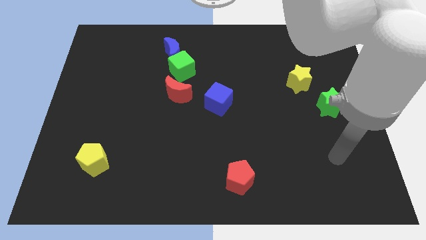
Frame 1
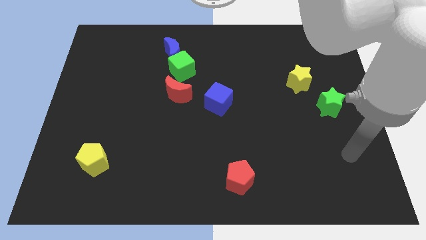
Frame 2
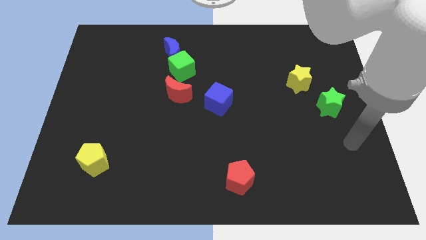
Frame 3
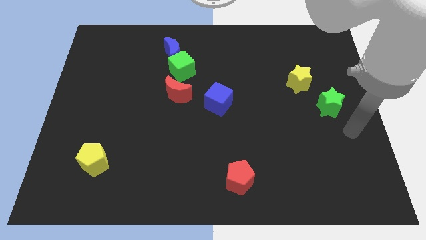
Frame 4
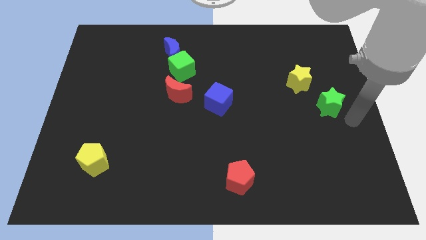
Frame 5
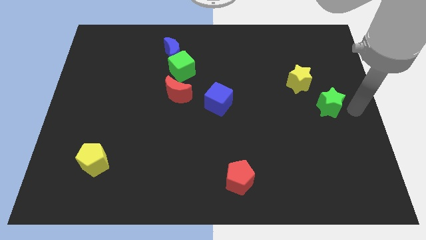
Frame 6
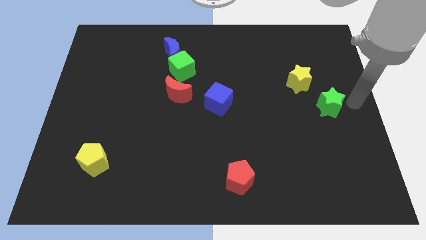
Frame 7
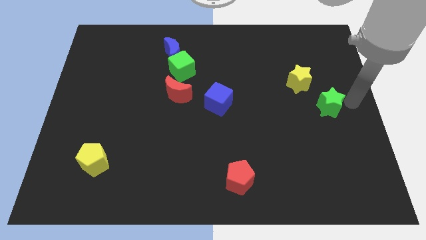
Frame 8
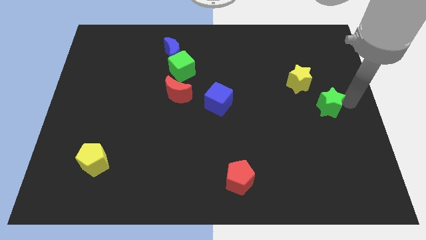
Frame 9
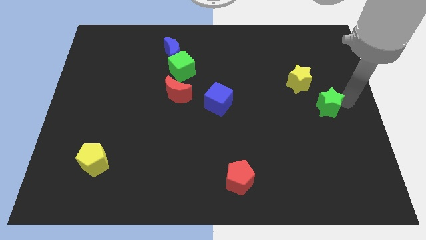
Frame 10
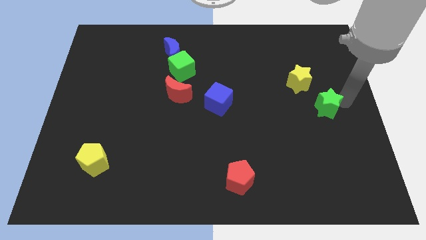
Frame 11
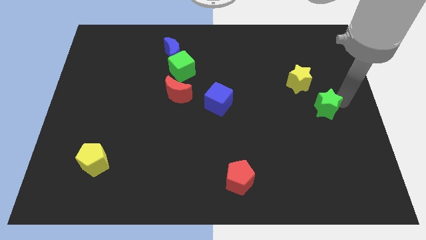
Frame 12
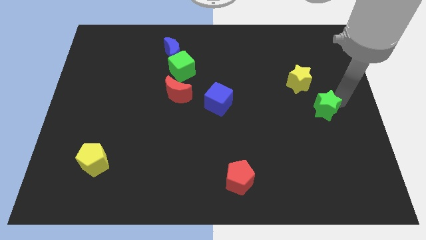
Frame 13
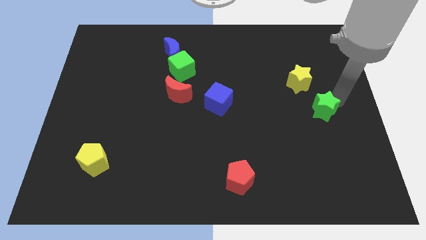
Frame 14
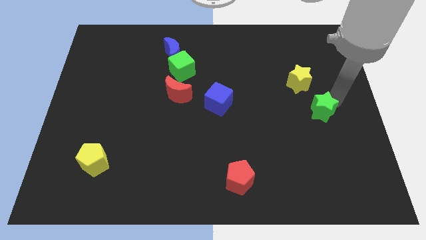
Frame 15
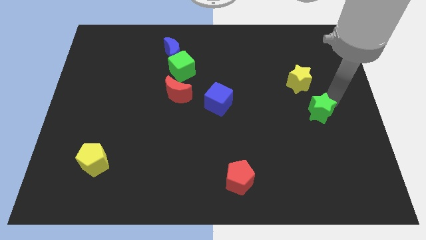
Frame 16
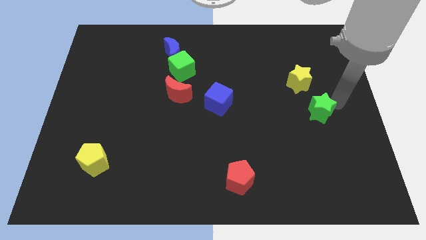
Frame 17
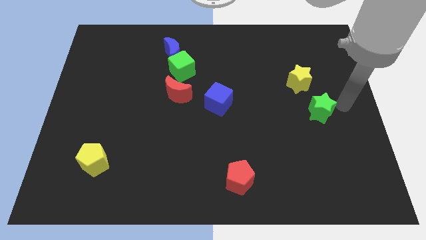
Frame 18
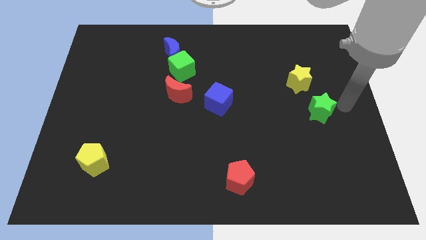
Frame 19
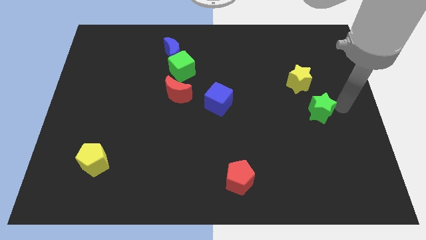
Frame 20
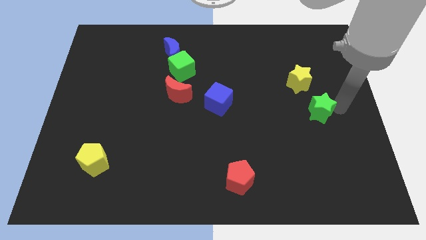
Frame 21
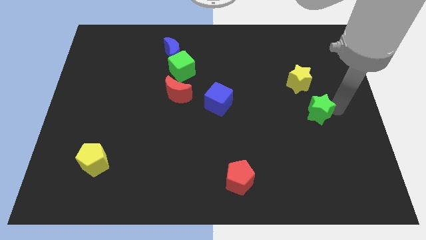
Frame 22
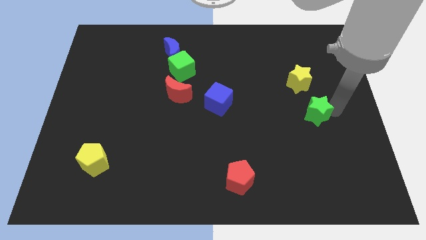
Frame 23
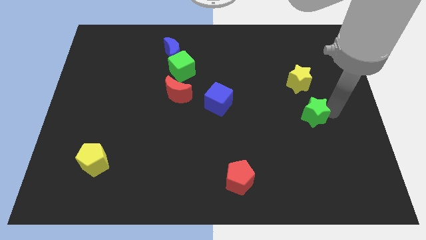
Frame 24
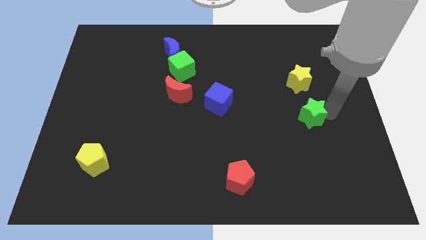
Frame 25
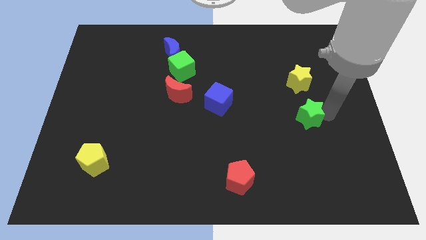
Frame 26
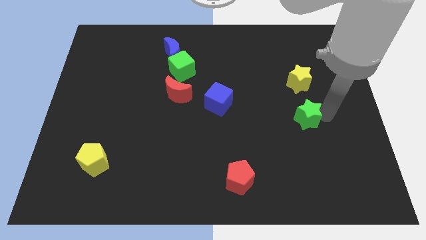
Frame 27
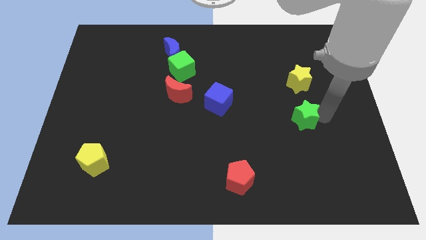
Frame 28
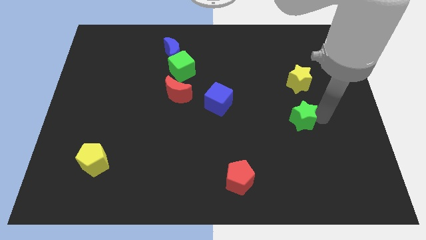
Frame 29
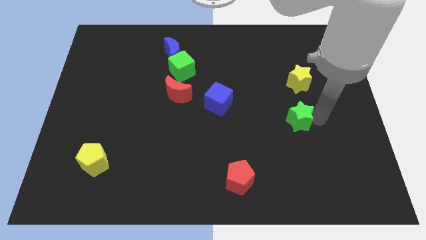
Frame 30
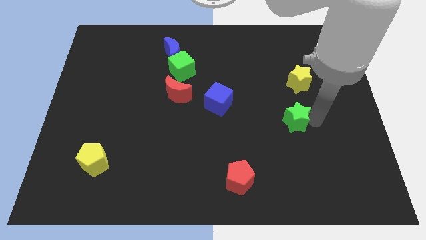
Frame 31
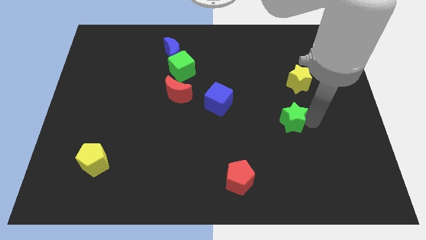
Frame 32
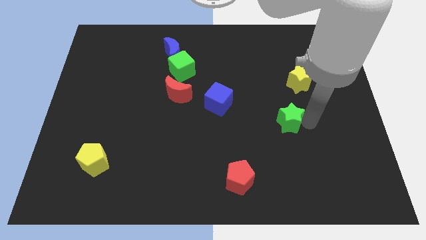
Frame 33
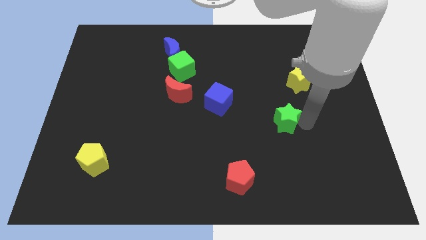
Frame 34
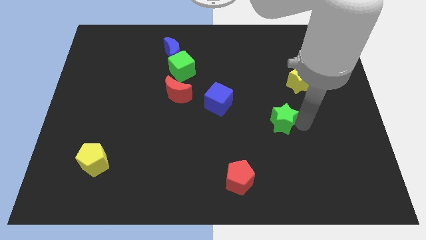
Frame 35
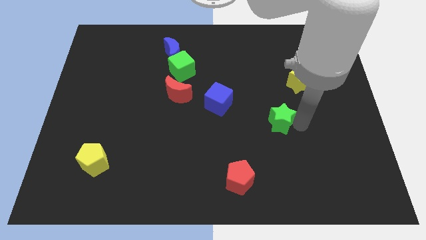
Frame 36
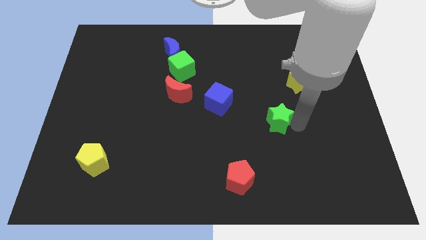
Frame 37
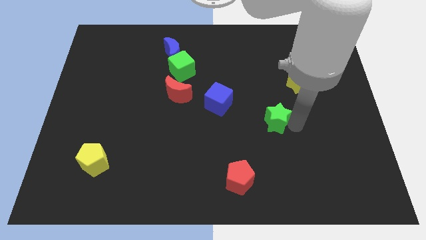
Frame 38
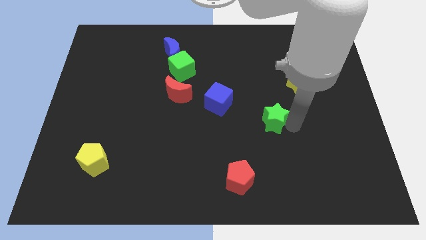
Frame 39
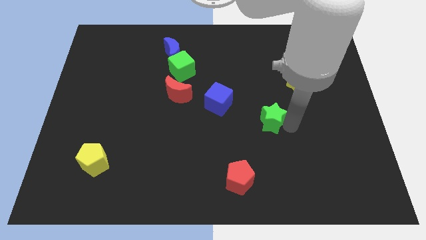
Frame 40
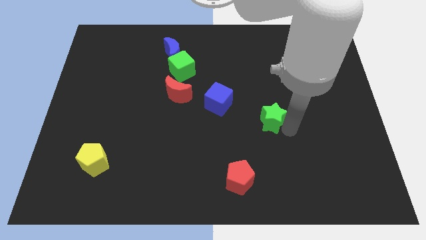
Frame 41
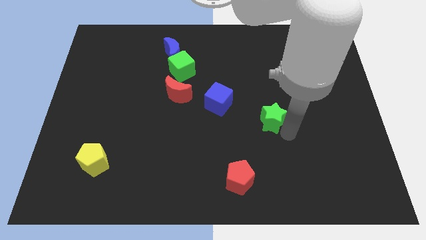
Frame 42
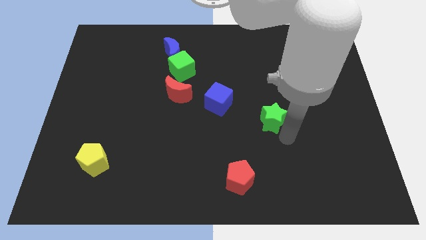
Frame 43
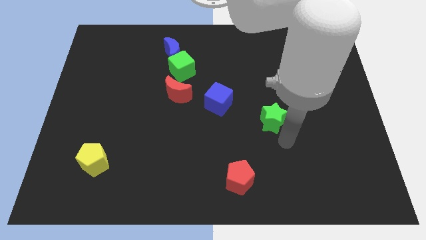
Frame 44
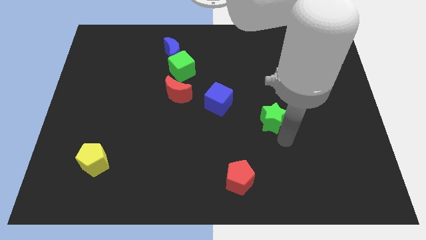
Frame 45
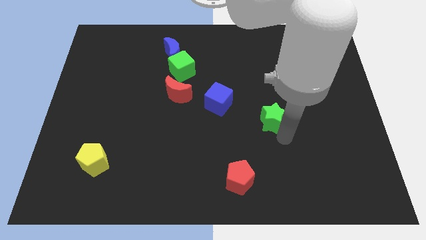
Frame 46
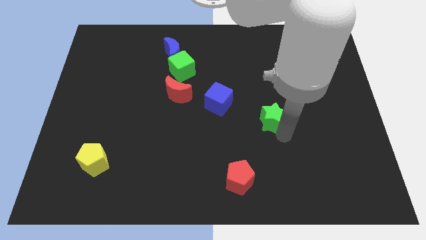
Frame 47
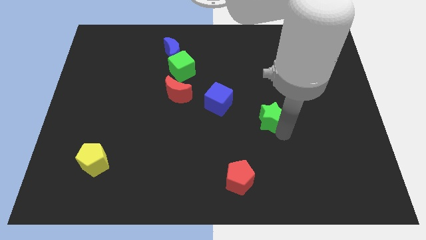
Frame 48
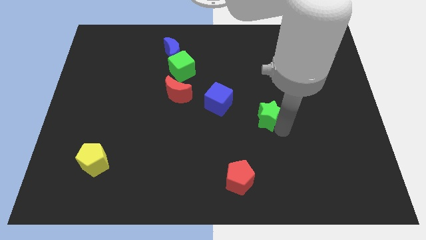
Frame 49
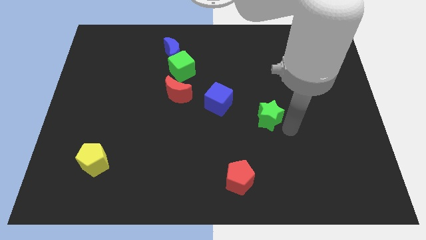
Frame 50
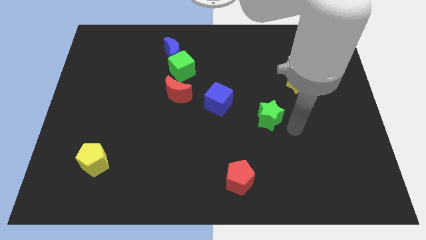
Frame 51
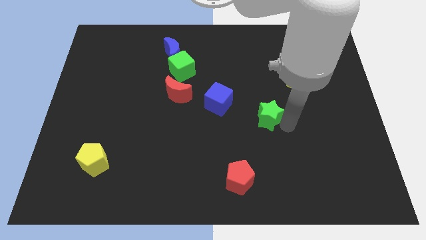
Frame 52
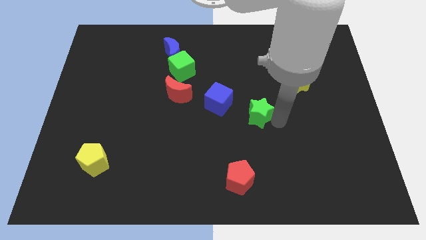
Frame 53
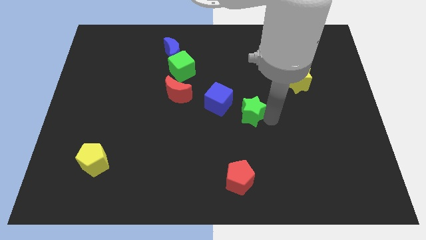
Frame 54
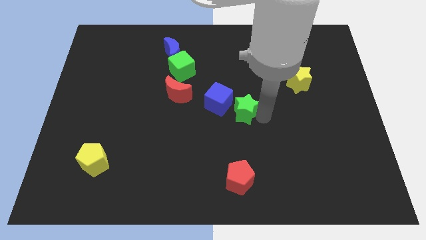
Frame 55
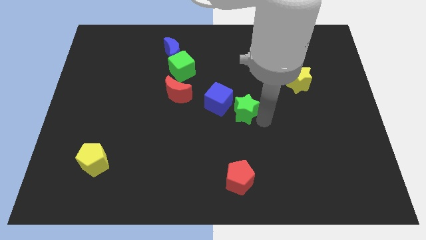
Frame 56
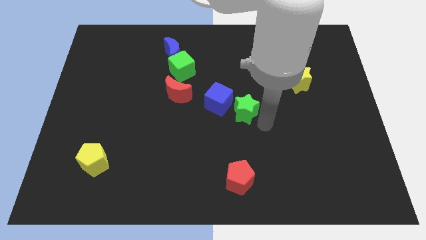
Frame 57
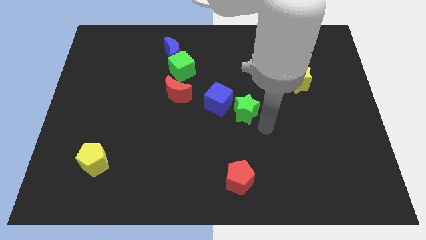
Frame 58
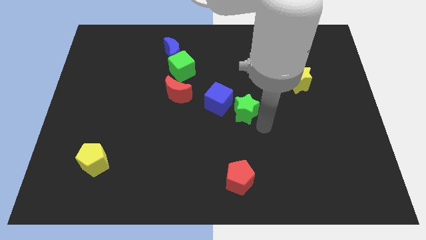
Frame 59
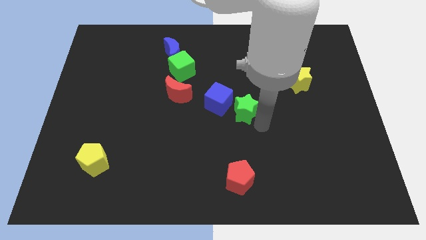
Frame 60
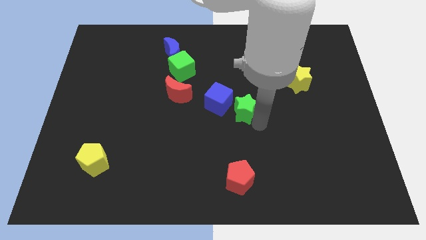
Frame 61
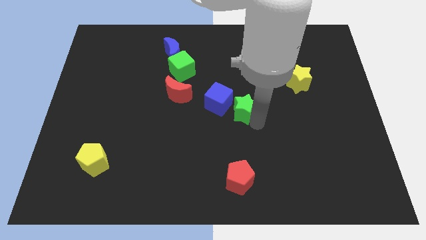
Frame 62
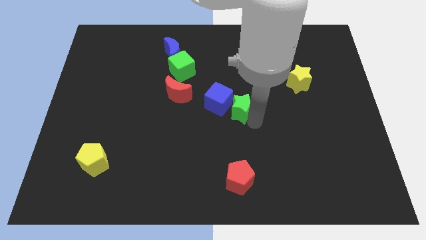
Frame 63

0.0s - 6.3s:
put the green star close to the blue cube

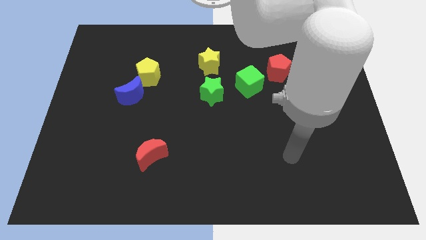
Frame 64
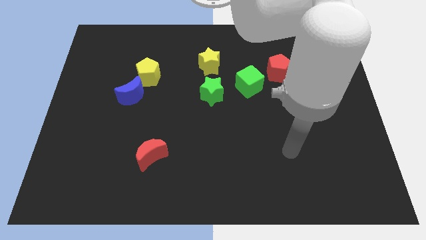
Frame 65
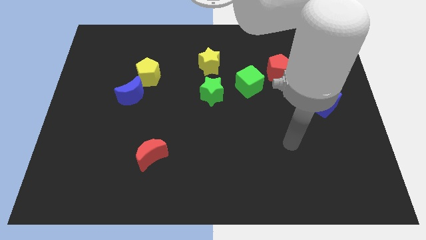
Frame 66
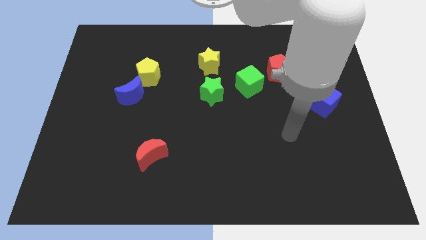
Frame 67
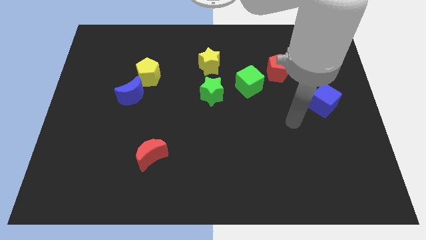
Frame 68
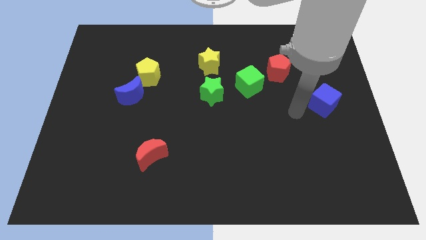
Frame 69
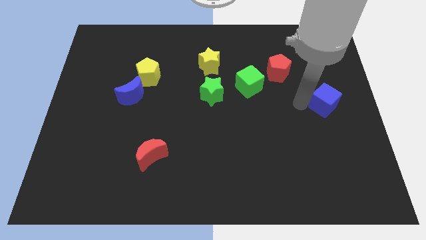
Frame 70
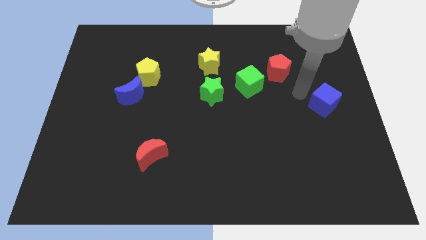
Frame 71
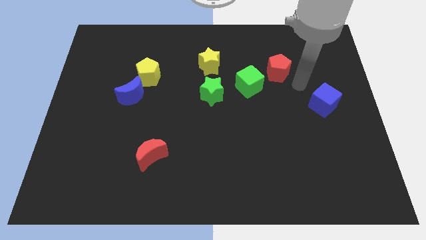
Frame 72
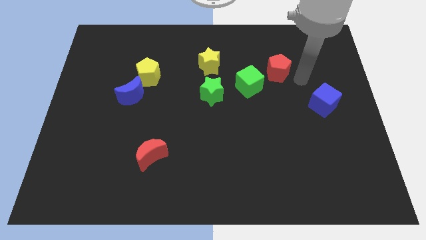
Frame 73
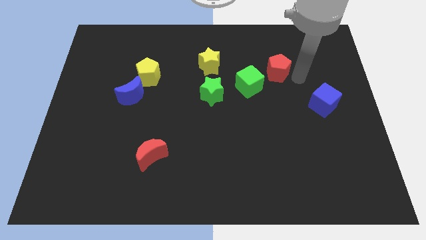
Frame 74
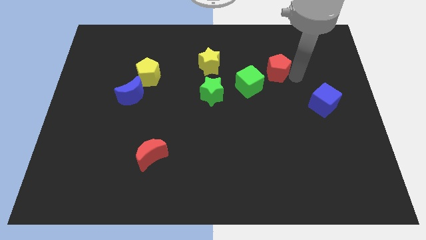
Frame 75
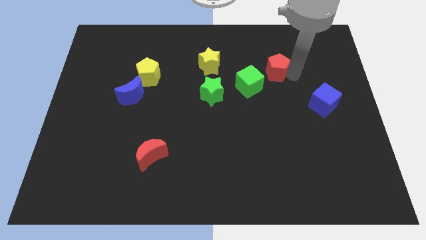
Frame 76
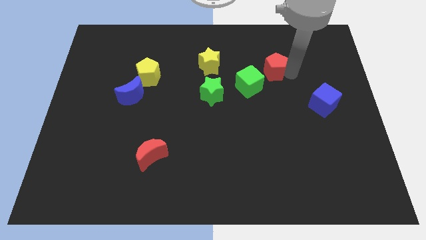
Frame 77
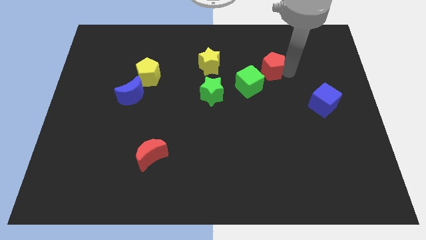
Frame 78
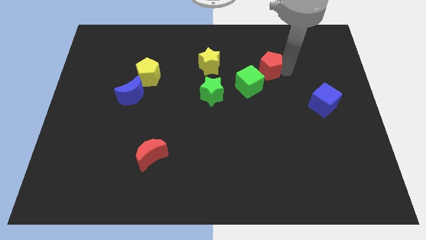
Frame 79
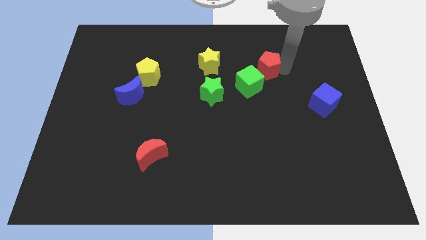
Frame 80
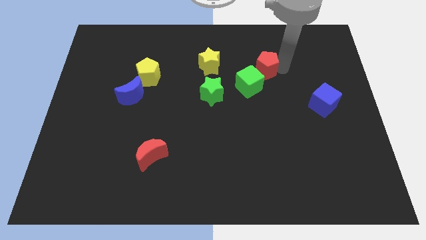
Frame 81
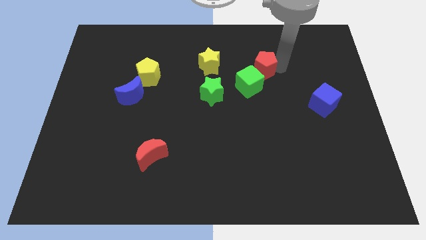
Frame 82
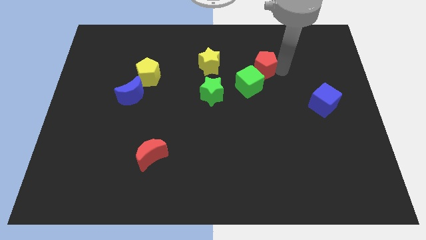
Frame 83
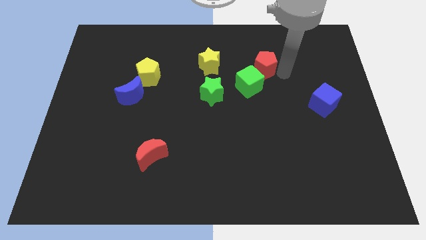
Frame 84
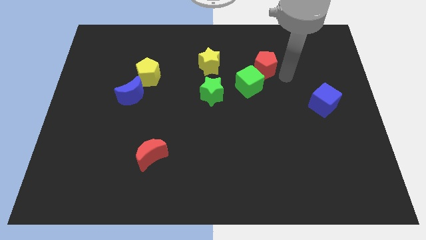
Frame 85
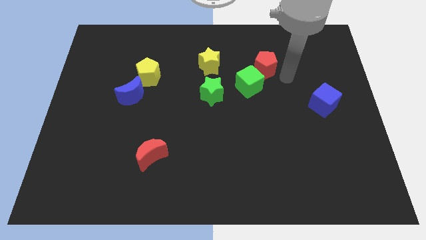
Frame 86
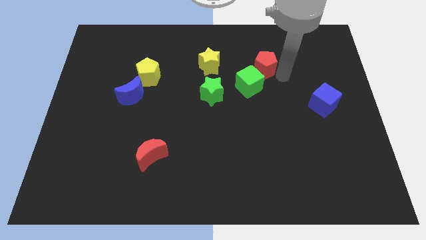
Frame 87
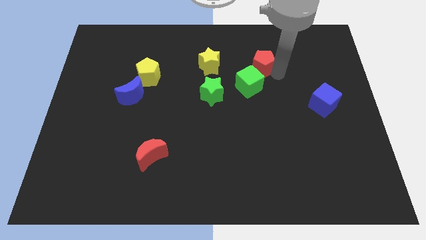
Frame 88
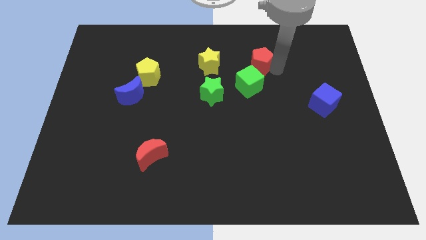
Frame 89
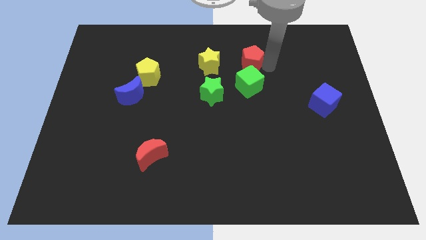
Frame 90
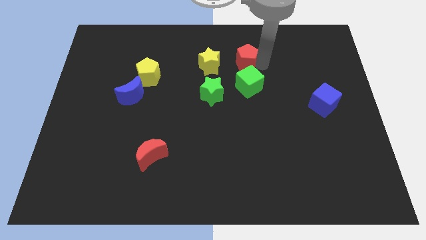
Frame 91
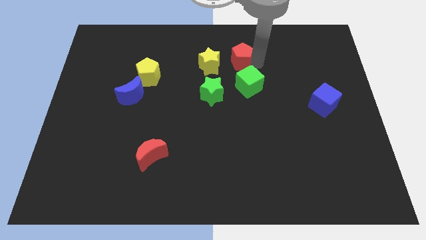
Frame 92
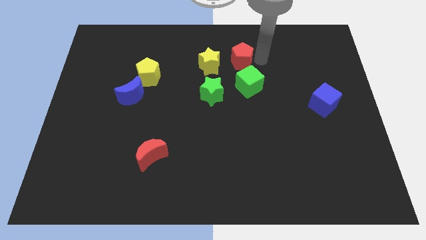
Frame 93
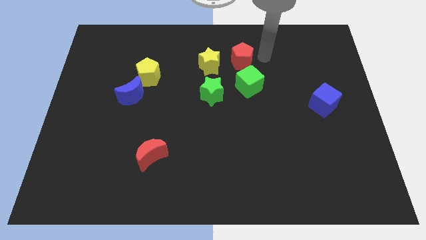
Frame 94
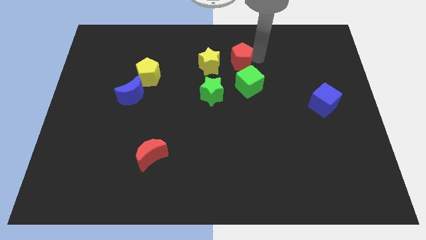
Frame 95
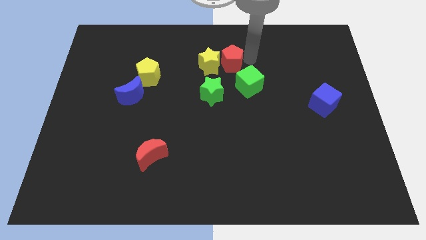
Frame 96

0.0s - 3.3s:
slide the red pentagon towards the yellow star
